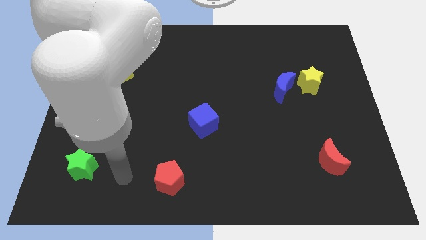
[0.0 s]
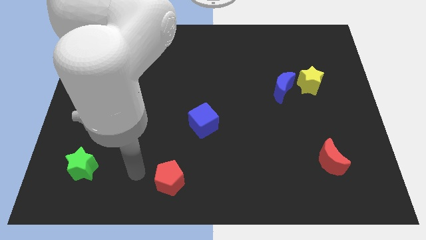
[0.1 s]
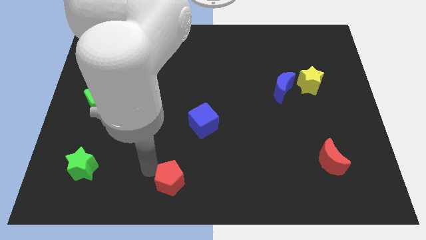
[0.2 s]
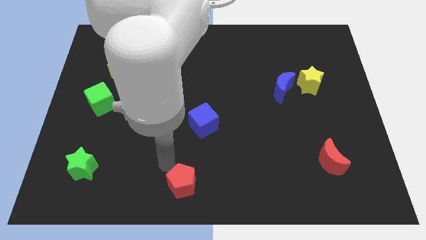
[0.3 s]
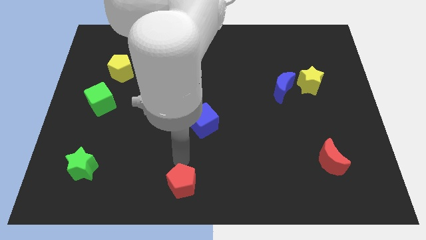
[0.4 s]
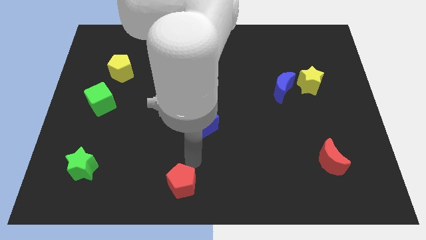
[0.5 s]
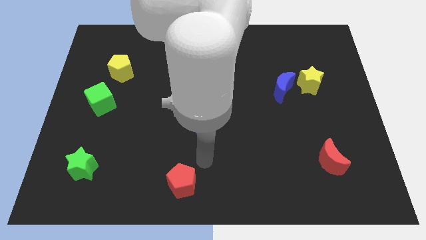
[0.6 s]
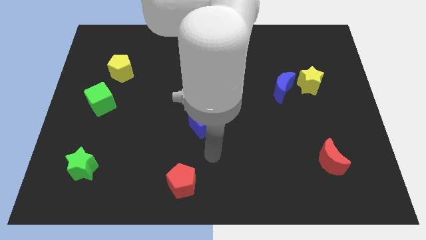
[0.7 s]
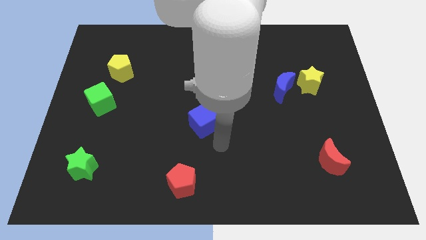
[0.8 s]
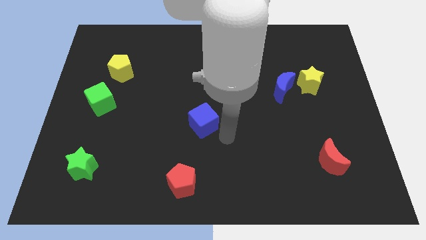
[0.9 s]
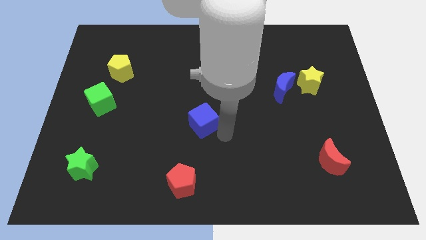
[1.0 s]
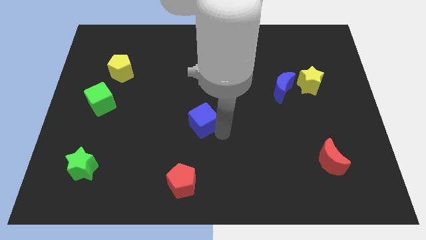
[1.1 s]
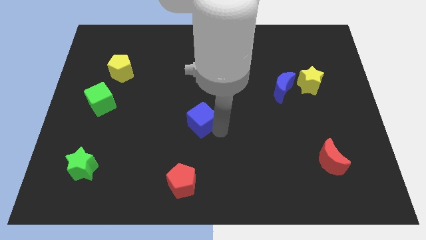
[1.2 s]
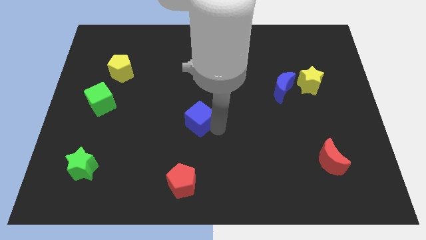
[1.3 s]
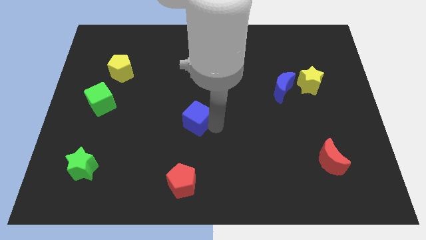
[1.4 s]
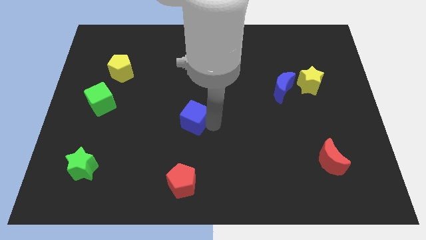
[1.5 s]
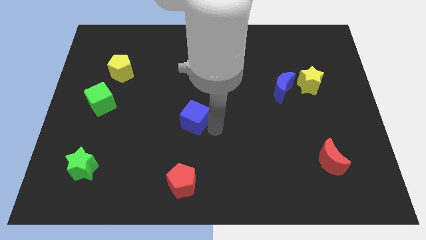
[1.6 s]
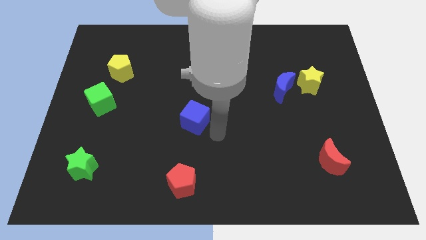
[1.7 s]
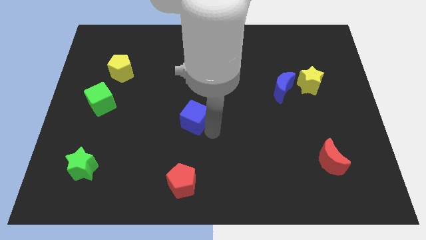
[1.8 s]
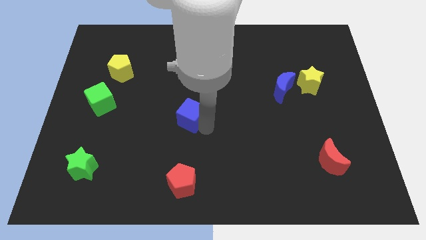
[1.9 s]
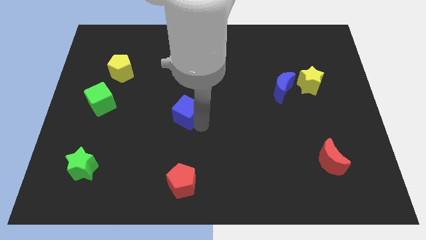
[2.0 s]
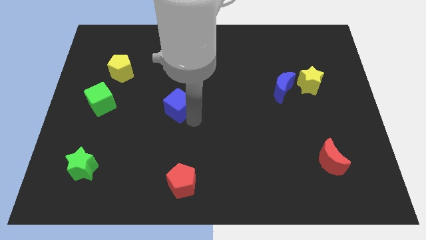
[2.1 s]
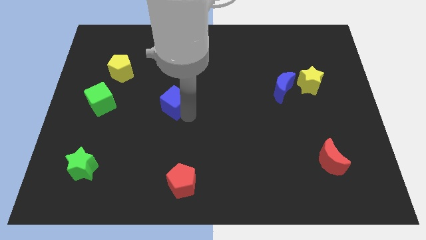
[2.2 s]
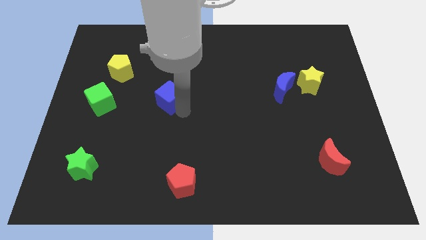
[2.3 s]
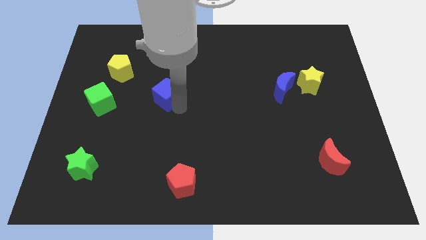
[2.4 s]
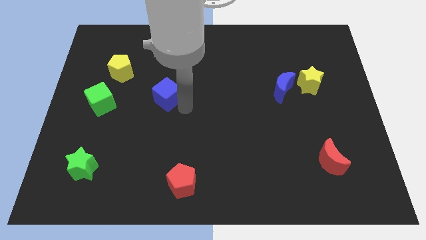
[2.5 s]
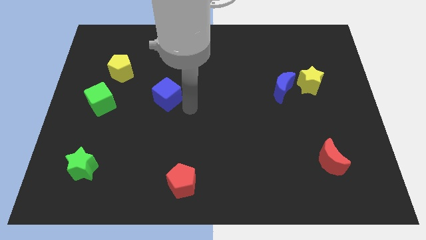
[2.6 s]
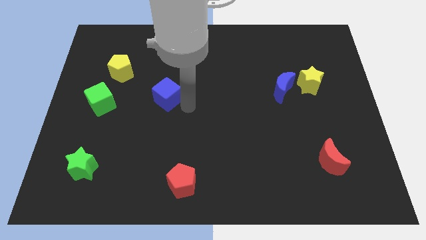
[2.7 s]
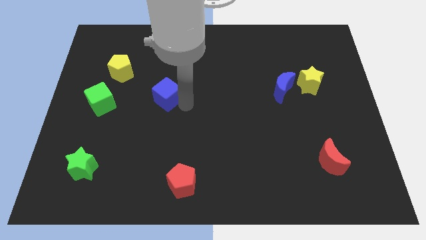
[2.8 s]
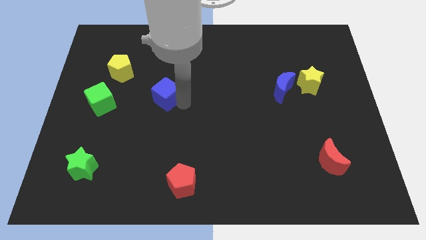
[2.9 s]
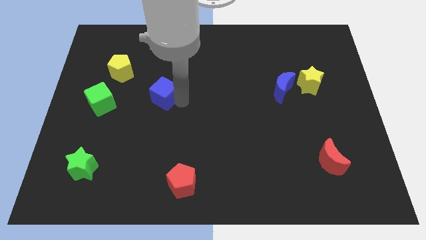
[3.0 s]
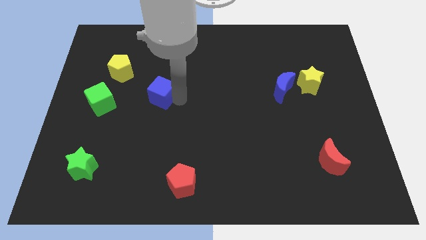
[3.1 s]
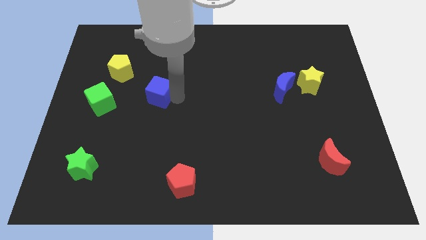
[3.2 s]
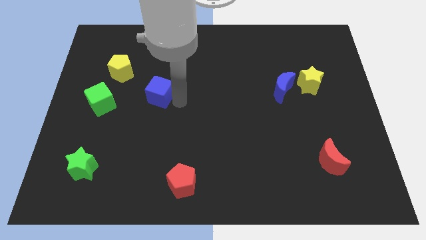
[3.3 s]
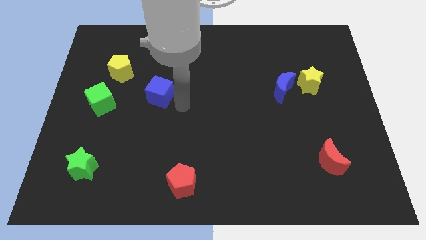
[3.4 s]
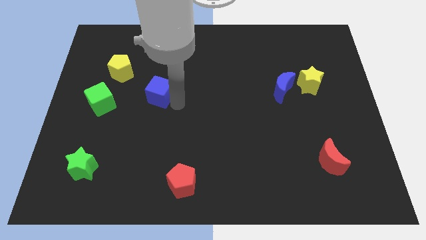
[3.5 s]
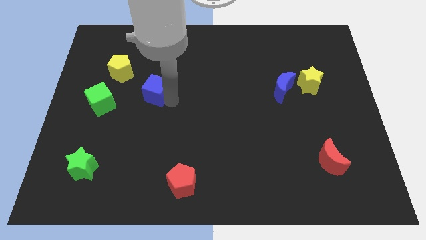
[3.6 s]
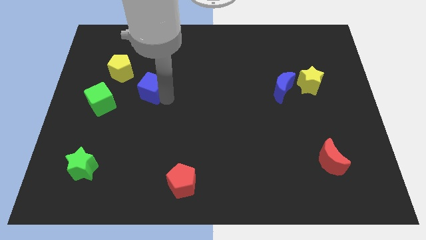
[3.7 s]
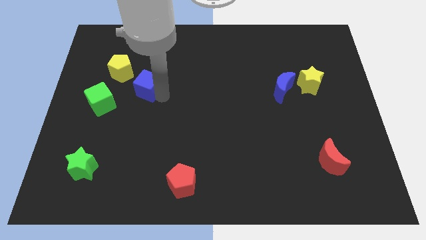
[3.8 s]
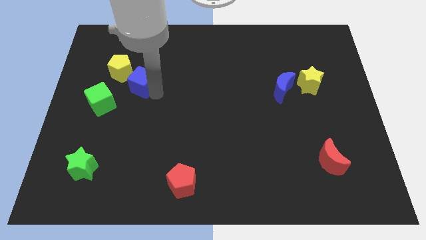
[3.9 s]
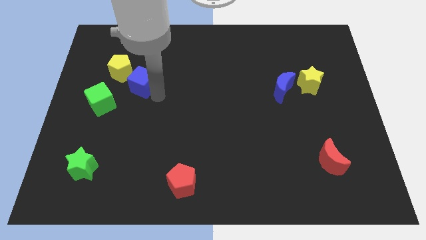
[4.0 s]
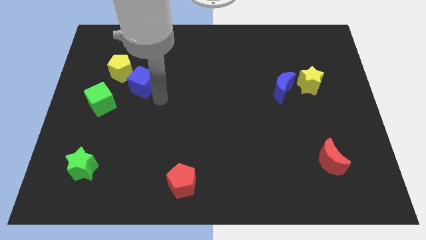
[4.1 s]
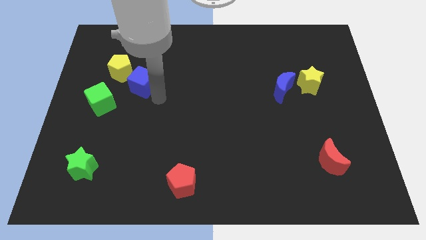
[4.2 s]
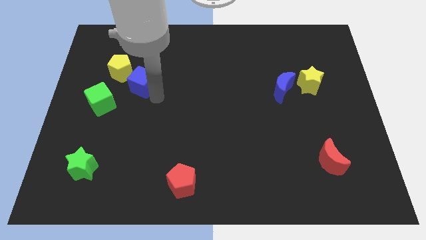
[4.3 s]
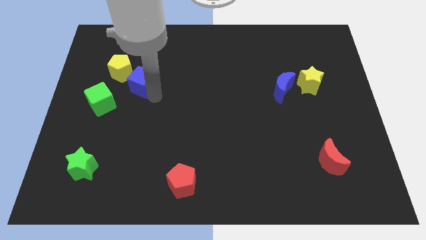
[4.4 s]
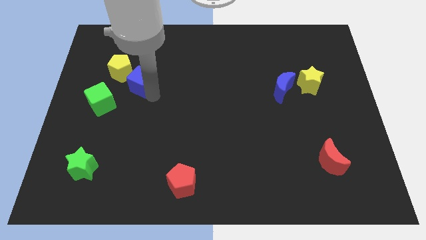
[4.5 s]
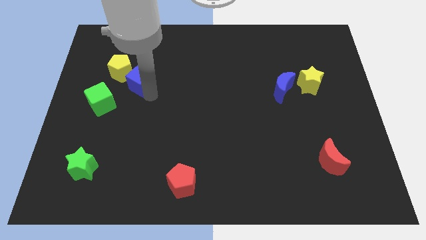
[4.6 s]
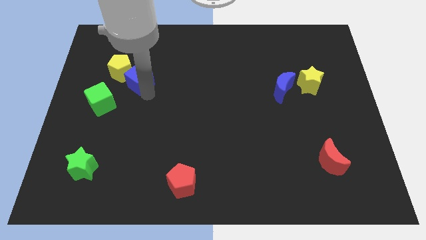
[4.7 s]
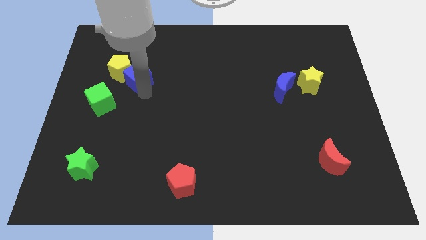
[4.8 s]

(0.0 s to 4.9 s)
put the blue cube to the yellow pentagon

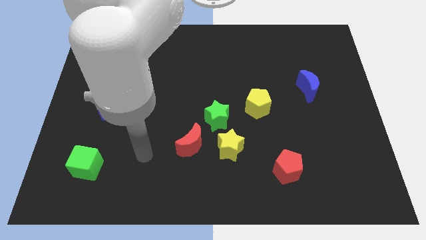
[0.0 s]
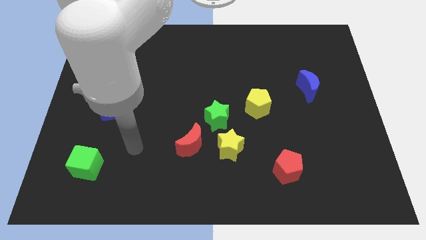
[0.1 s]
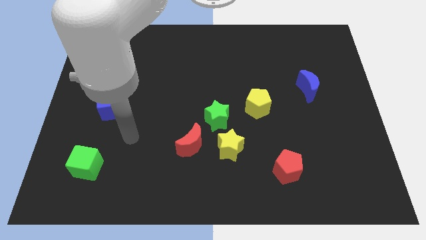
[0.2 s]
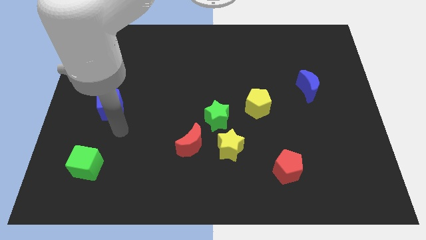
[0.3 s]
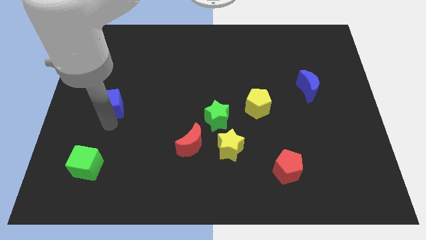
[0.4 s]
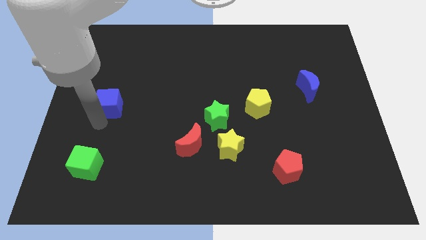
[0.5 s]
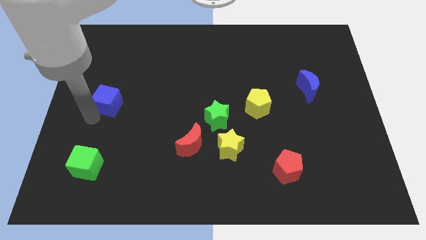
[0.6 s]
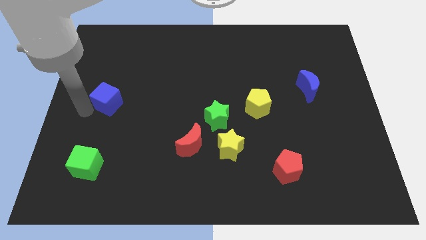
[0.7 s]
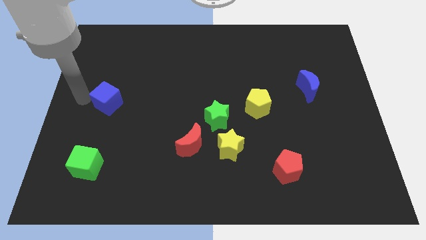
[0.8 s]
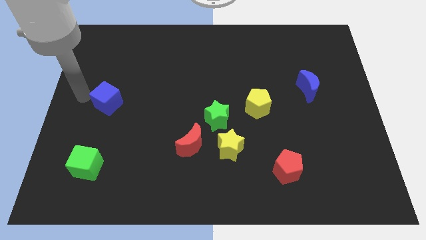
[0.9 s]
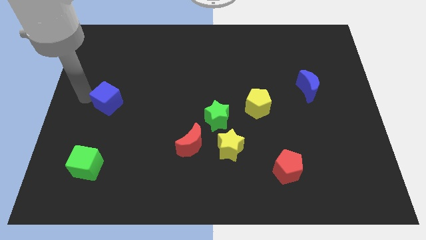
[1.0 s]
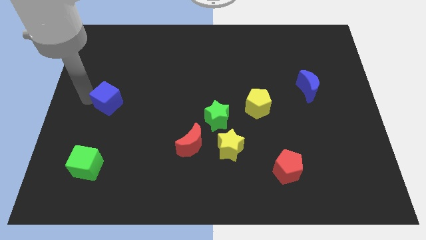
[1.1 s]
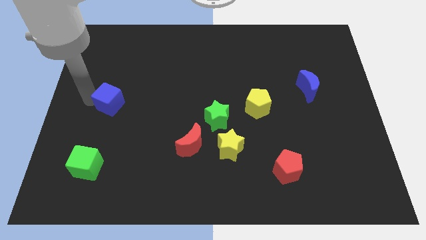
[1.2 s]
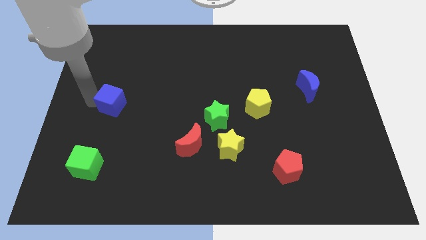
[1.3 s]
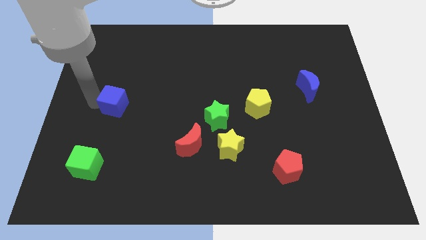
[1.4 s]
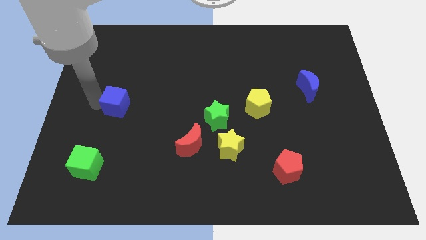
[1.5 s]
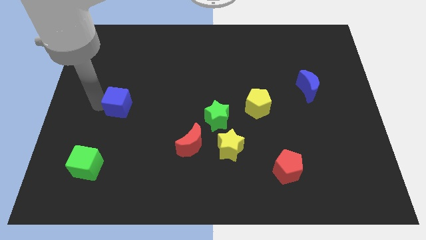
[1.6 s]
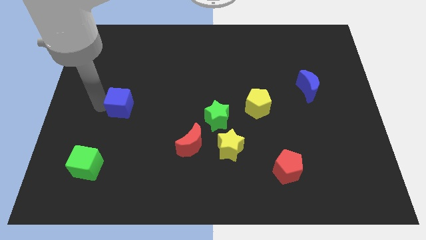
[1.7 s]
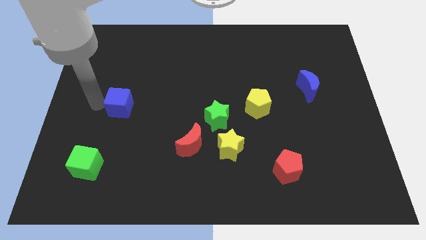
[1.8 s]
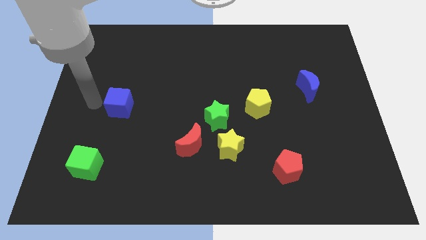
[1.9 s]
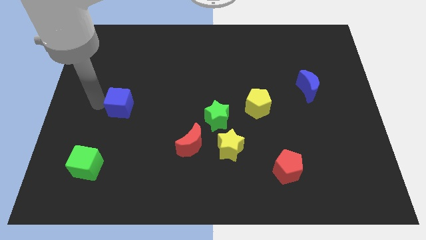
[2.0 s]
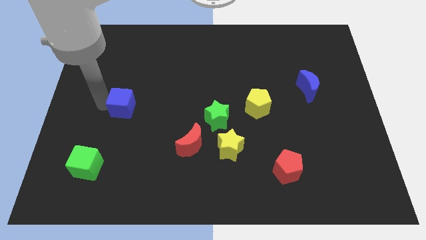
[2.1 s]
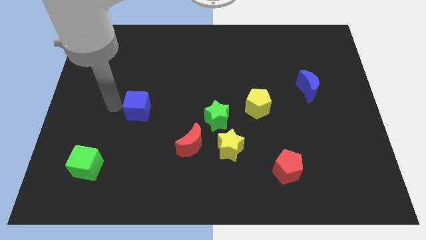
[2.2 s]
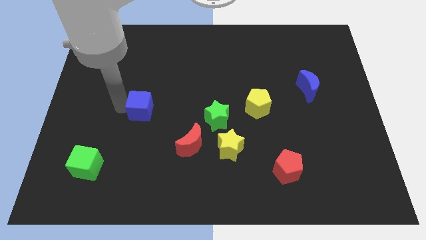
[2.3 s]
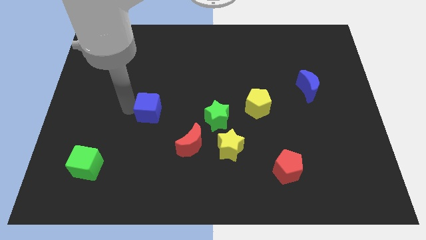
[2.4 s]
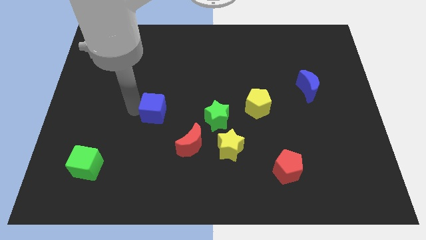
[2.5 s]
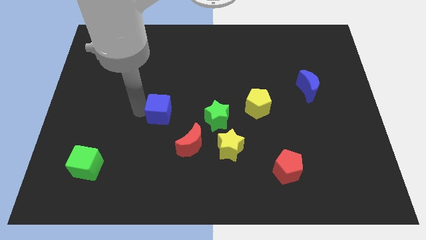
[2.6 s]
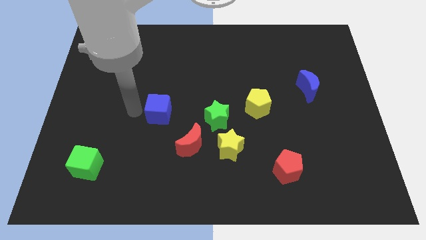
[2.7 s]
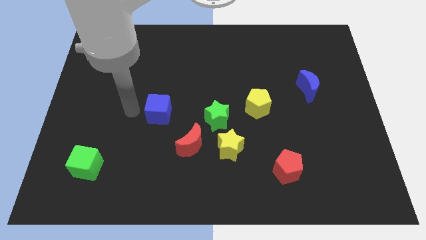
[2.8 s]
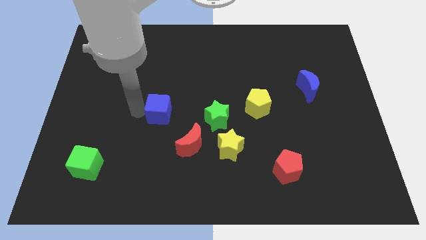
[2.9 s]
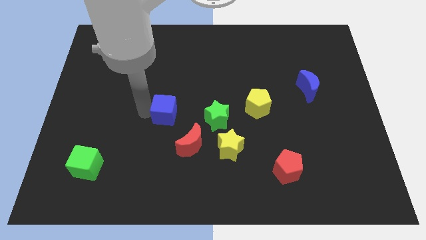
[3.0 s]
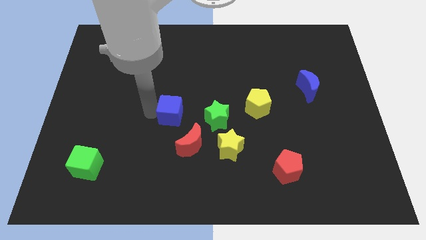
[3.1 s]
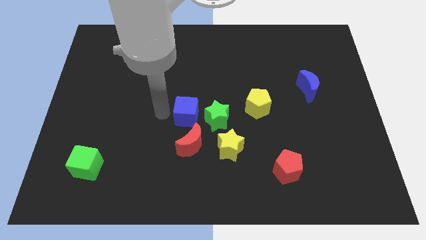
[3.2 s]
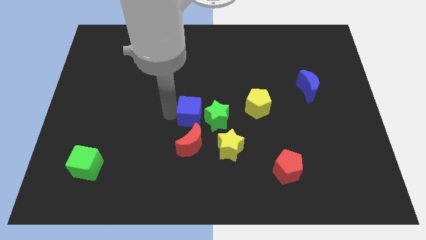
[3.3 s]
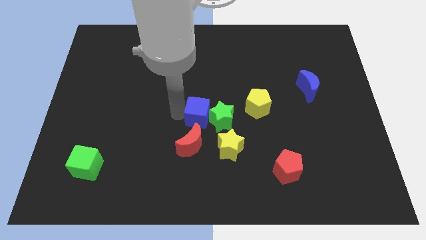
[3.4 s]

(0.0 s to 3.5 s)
put the blue cube close to the green star
